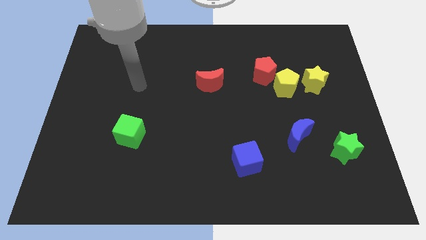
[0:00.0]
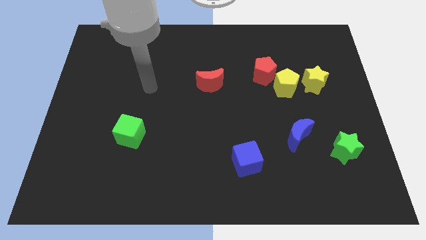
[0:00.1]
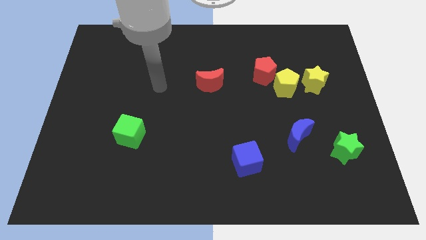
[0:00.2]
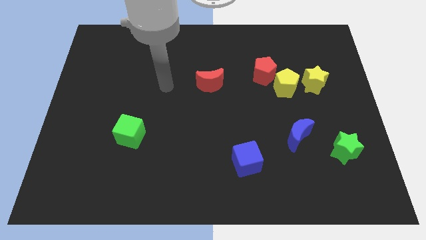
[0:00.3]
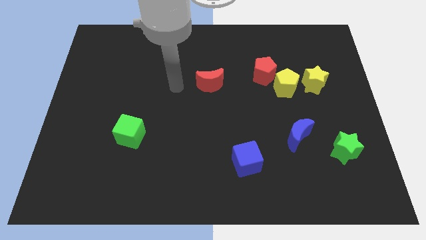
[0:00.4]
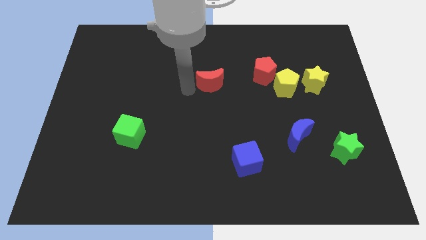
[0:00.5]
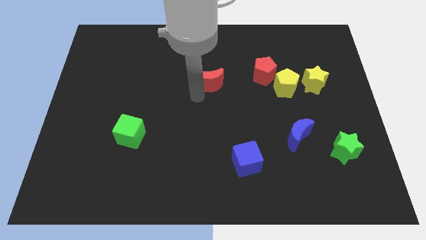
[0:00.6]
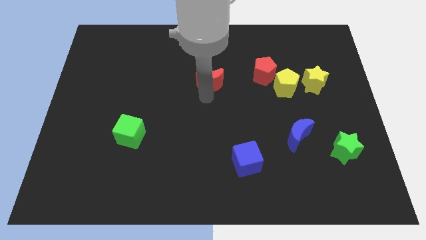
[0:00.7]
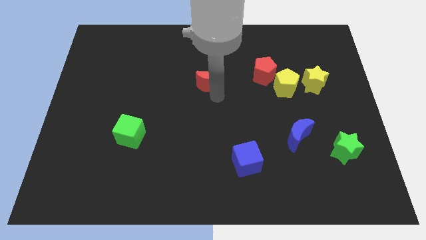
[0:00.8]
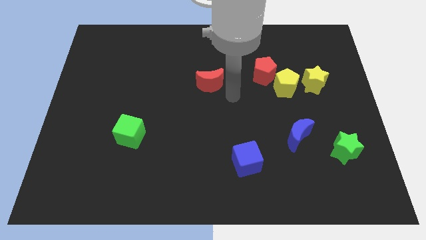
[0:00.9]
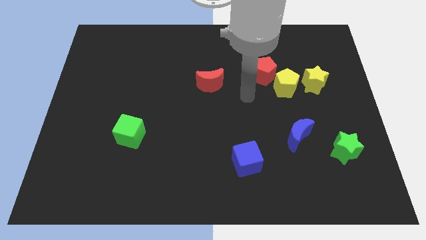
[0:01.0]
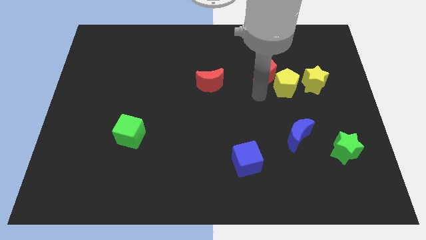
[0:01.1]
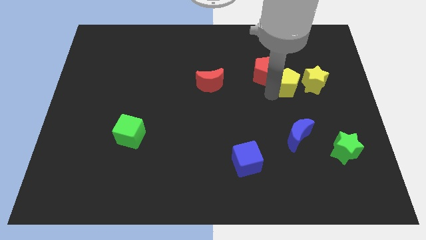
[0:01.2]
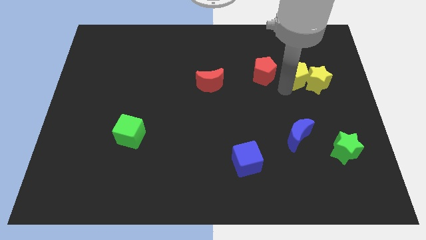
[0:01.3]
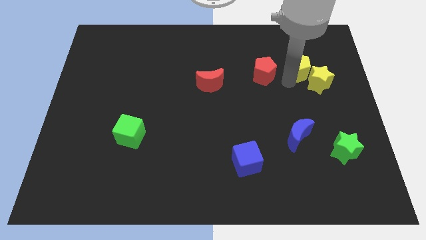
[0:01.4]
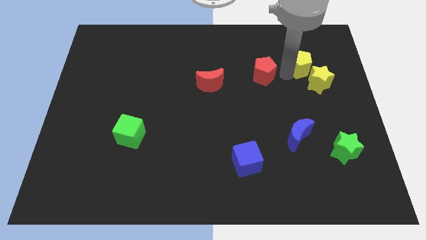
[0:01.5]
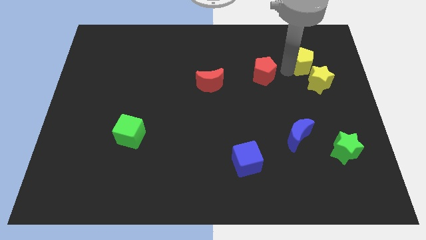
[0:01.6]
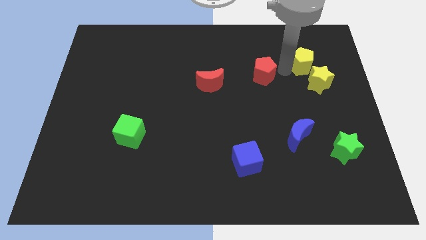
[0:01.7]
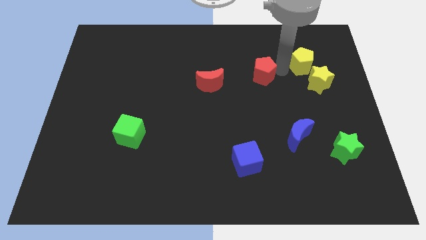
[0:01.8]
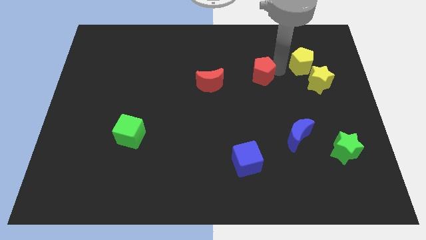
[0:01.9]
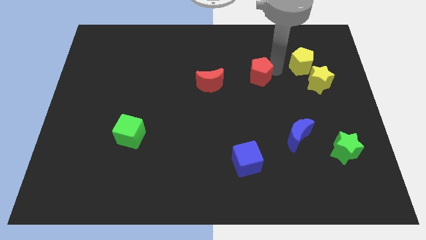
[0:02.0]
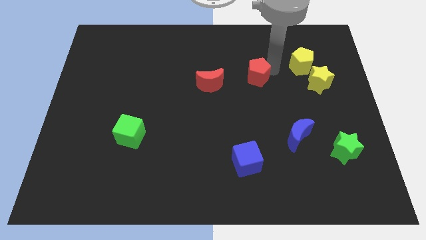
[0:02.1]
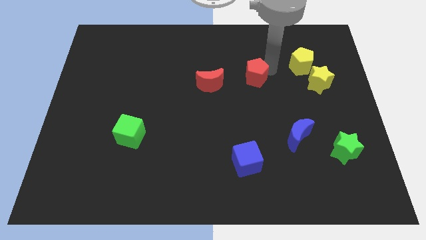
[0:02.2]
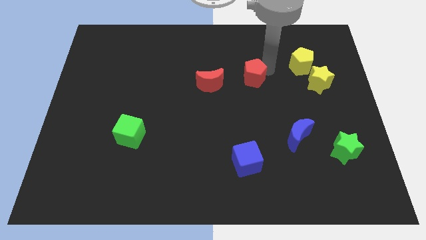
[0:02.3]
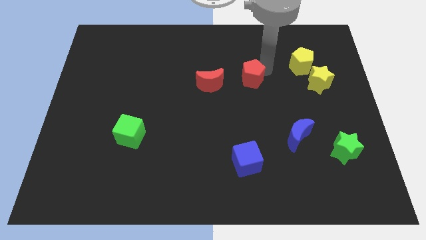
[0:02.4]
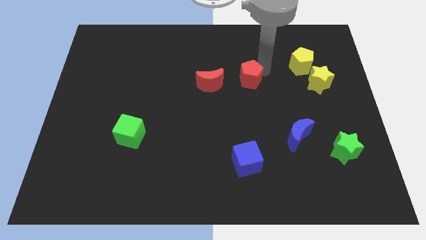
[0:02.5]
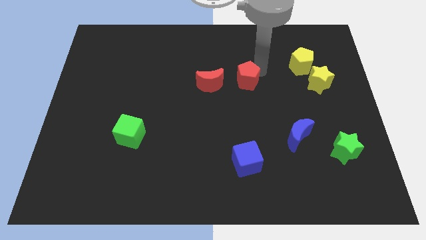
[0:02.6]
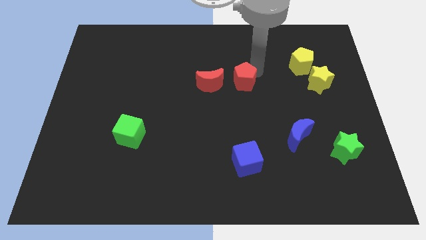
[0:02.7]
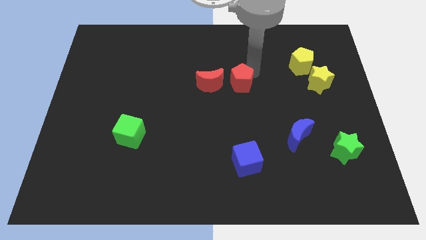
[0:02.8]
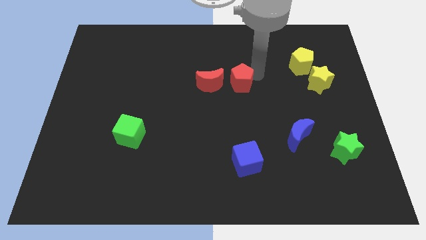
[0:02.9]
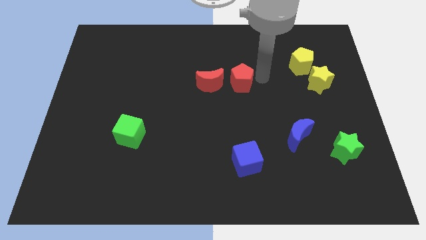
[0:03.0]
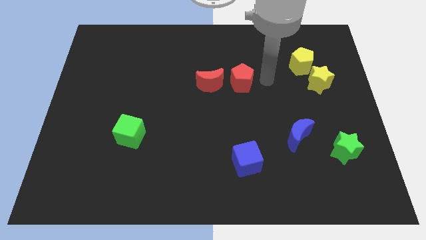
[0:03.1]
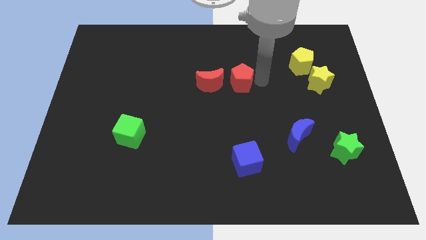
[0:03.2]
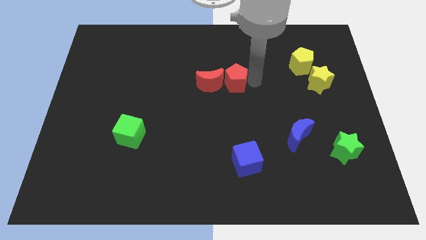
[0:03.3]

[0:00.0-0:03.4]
slide the red pentagon towards the red moon

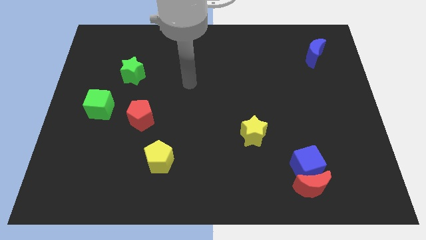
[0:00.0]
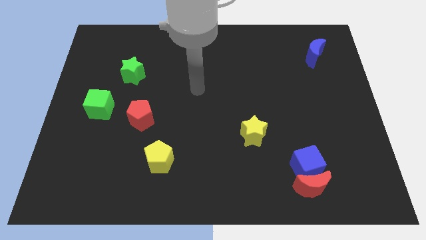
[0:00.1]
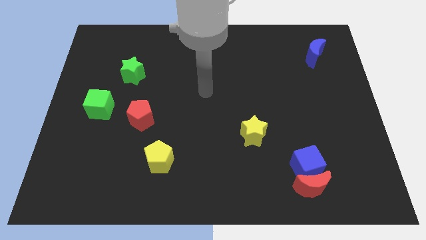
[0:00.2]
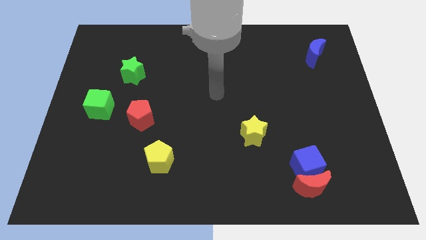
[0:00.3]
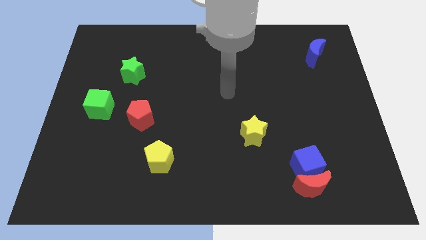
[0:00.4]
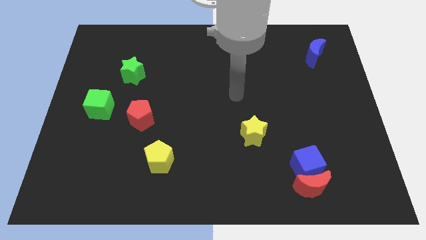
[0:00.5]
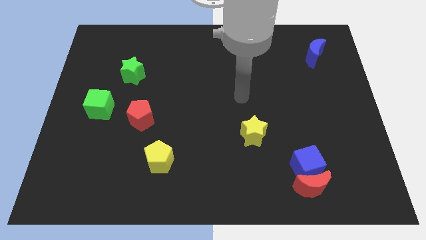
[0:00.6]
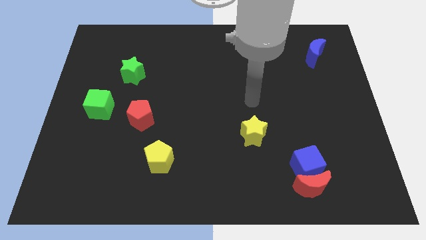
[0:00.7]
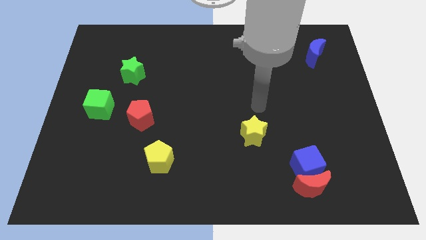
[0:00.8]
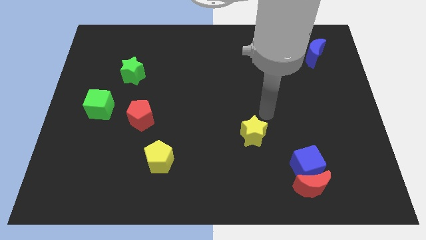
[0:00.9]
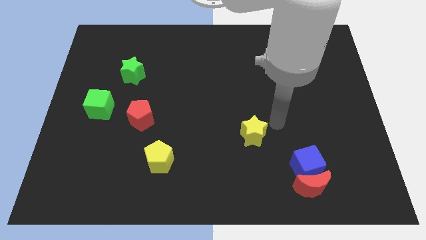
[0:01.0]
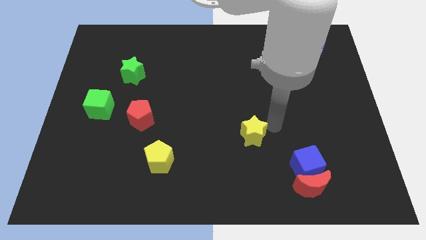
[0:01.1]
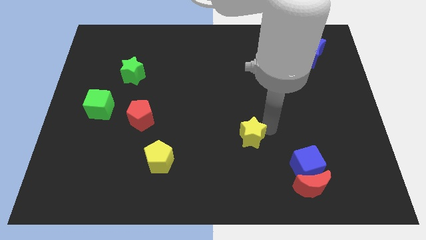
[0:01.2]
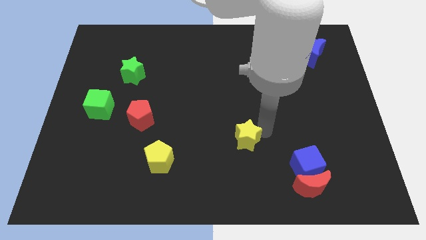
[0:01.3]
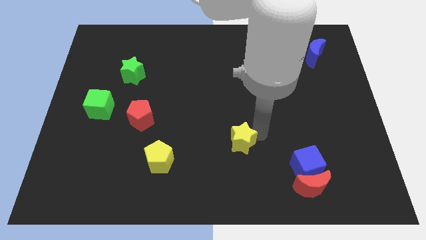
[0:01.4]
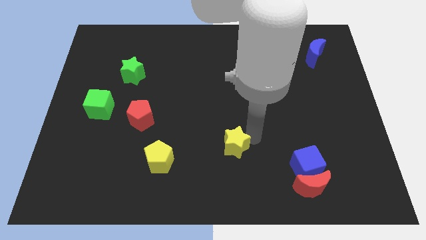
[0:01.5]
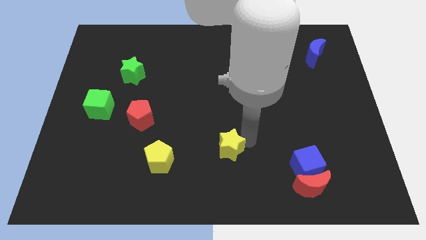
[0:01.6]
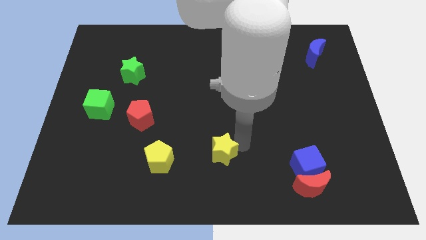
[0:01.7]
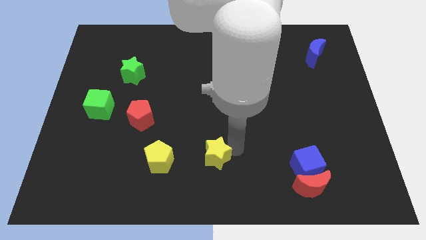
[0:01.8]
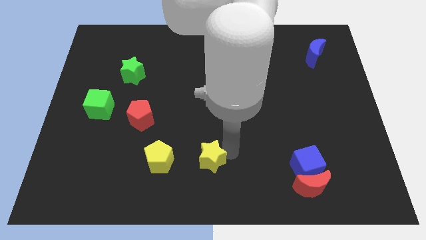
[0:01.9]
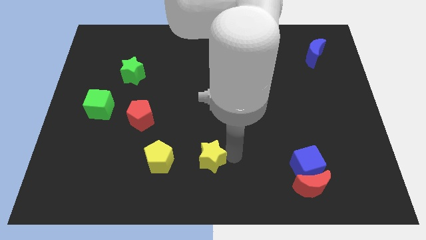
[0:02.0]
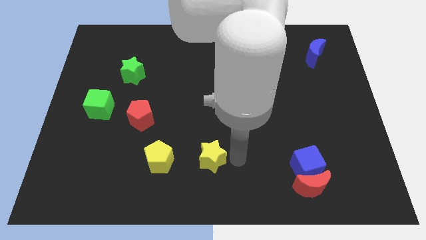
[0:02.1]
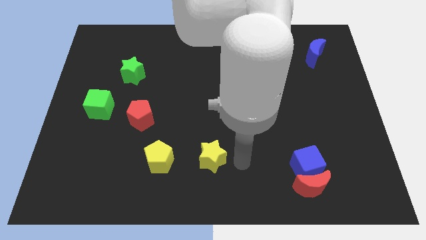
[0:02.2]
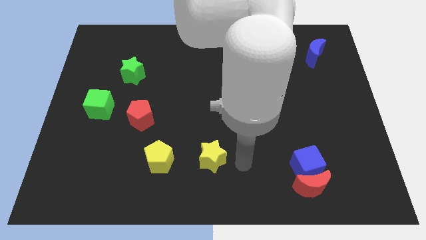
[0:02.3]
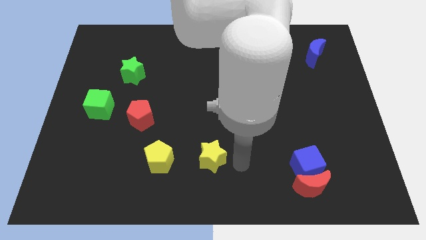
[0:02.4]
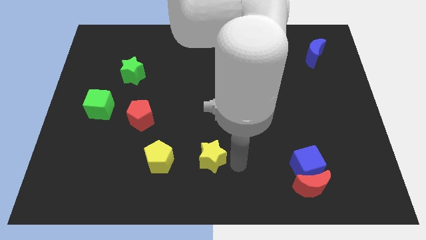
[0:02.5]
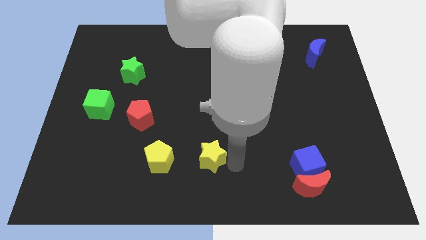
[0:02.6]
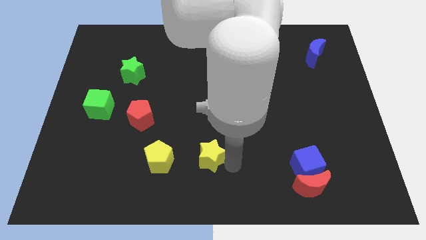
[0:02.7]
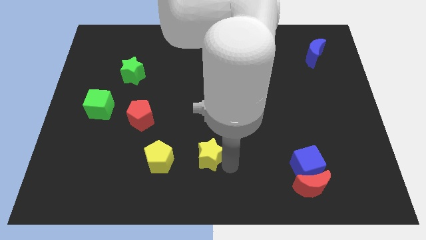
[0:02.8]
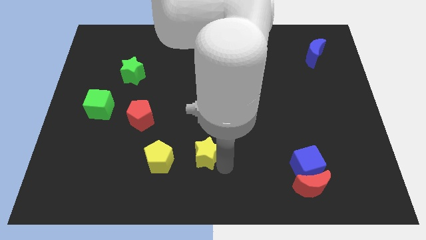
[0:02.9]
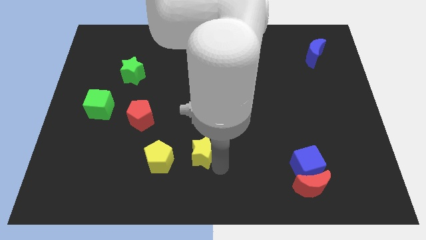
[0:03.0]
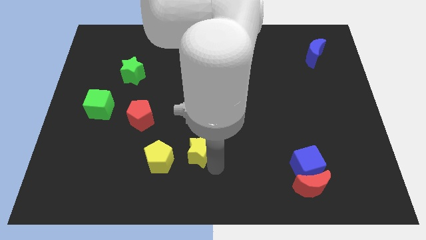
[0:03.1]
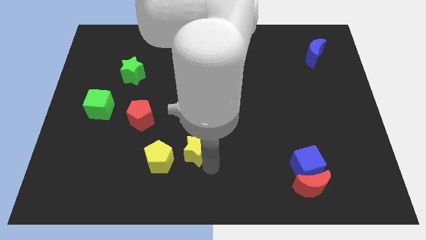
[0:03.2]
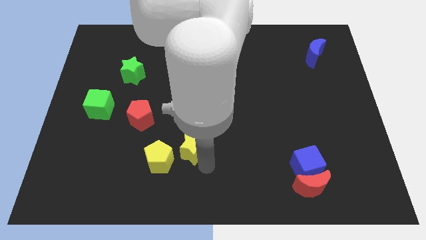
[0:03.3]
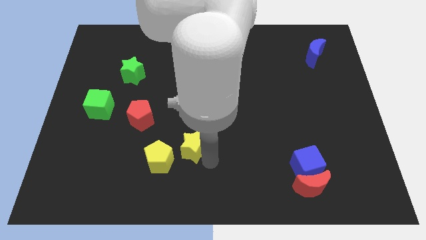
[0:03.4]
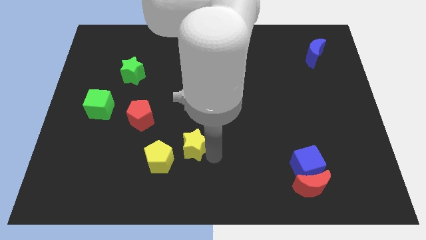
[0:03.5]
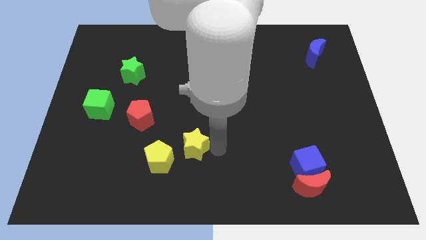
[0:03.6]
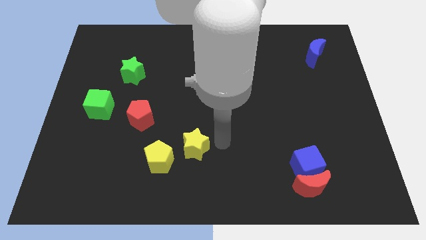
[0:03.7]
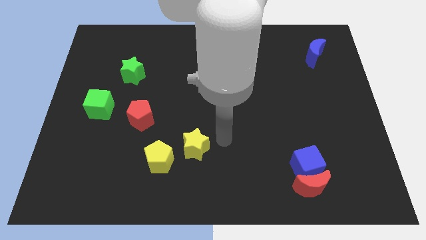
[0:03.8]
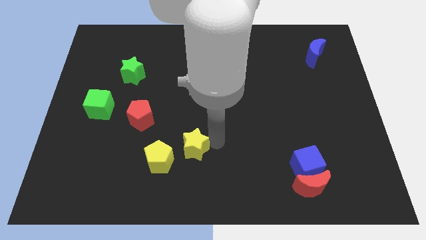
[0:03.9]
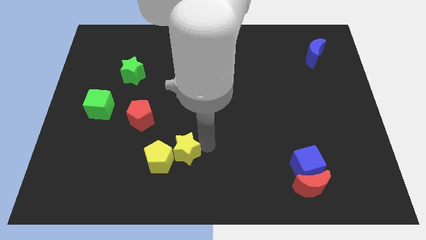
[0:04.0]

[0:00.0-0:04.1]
move the yellow star close to the yellow pentagon

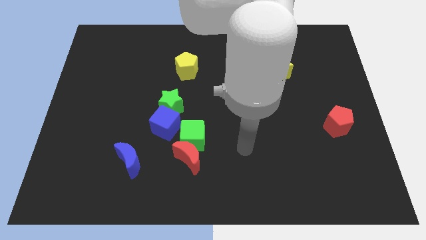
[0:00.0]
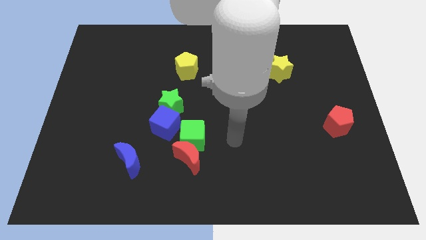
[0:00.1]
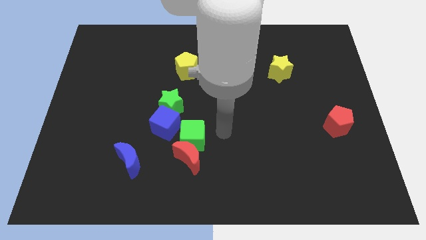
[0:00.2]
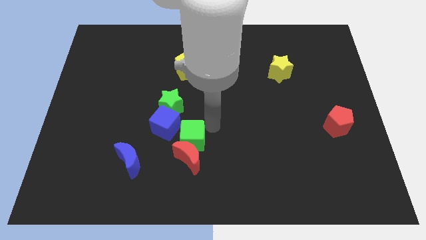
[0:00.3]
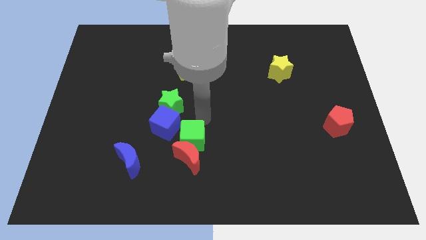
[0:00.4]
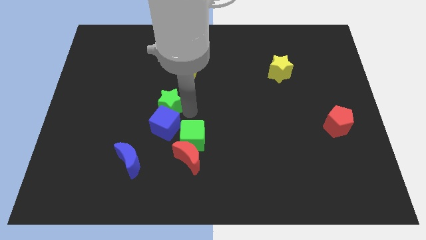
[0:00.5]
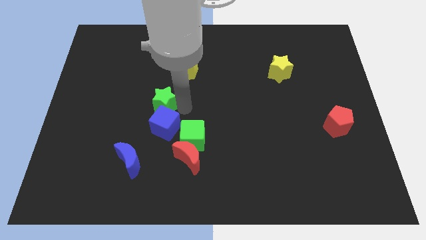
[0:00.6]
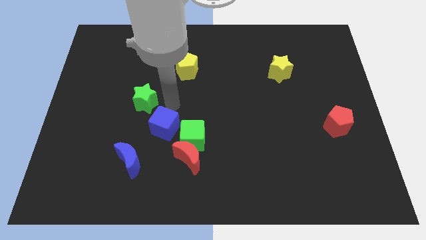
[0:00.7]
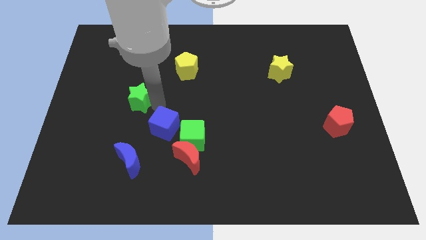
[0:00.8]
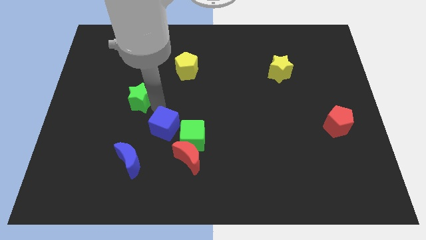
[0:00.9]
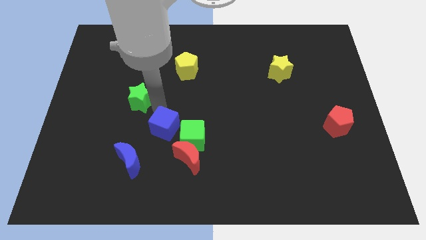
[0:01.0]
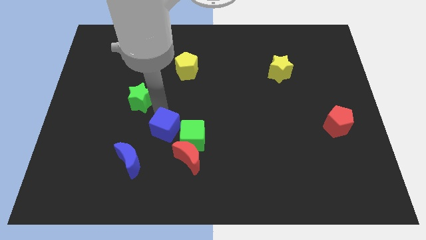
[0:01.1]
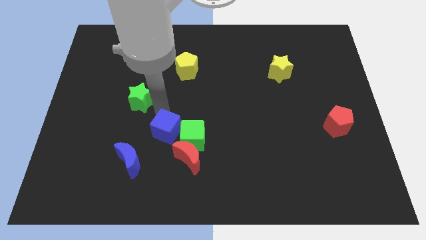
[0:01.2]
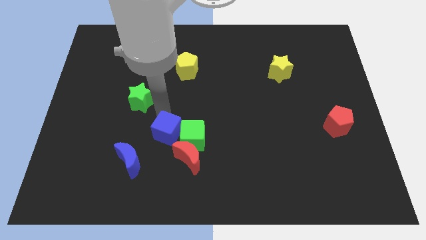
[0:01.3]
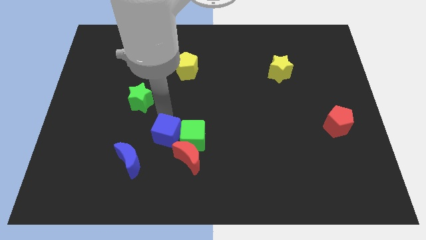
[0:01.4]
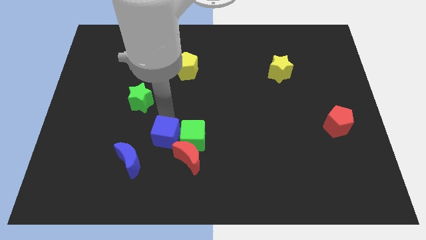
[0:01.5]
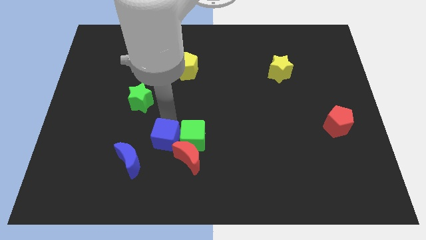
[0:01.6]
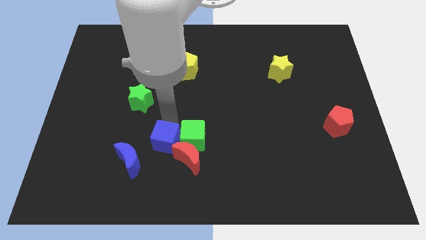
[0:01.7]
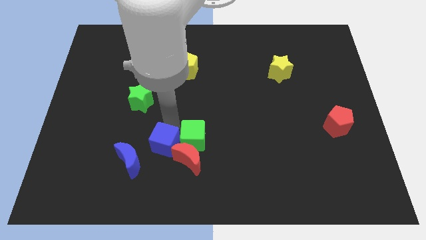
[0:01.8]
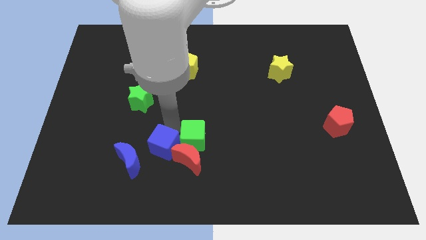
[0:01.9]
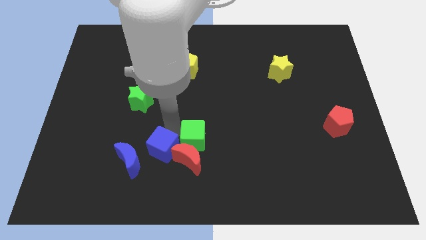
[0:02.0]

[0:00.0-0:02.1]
put the blue cube close to the red moon
